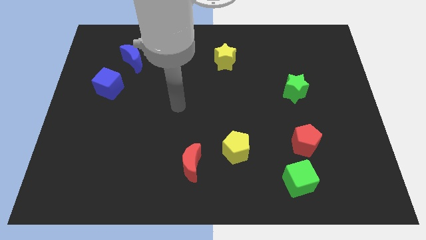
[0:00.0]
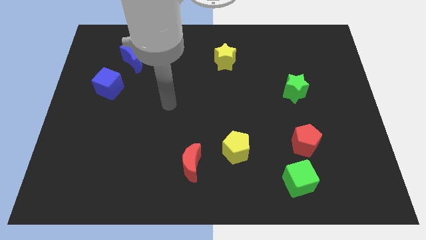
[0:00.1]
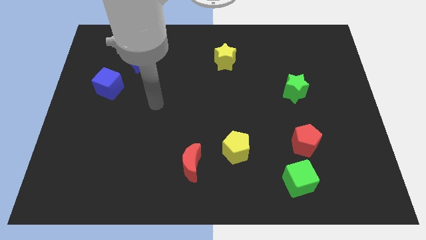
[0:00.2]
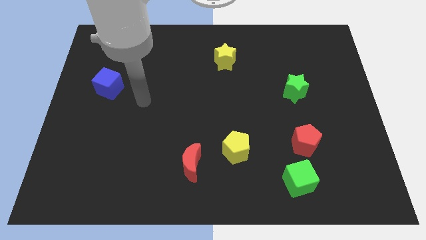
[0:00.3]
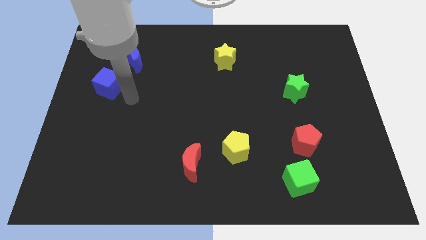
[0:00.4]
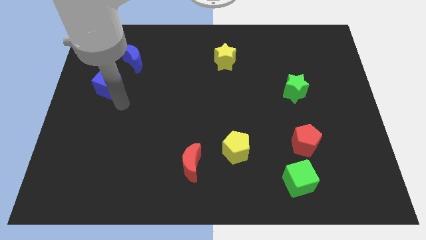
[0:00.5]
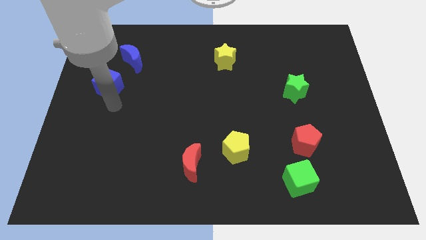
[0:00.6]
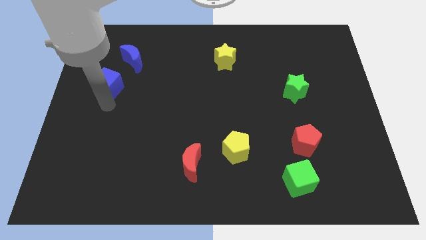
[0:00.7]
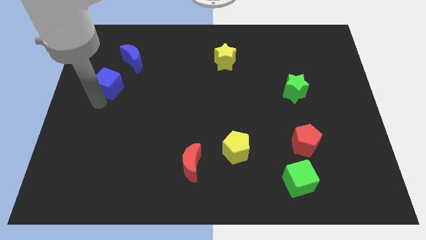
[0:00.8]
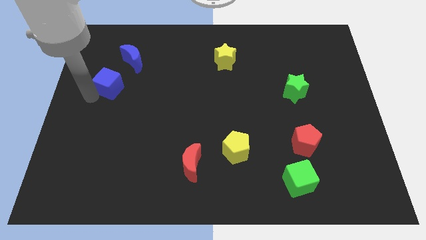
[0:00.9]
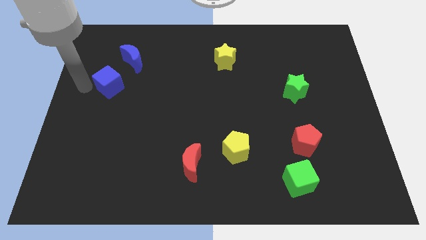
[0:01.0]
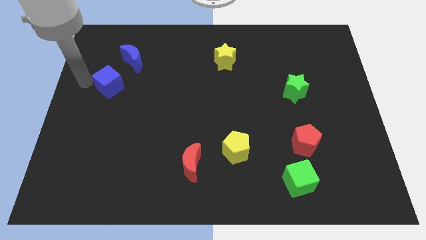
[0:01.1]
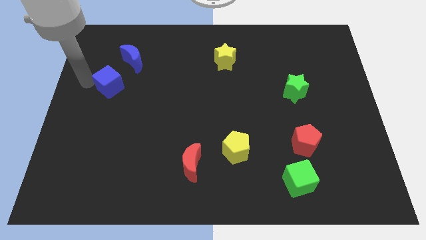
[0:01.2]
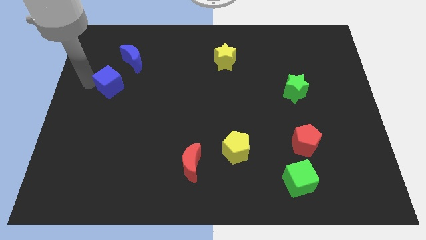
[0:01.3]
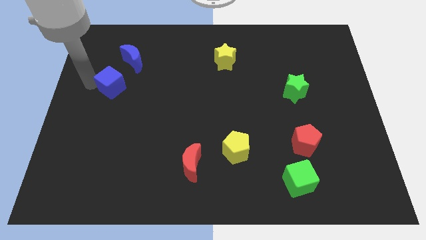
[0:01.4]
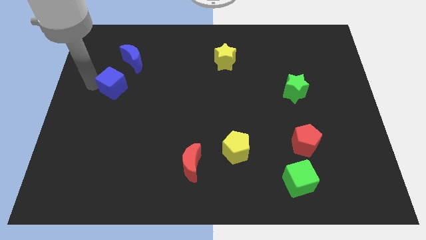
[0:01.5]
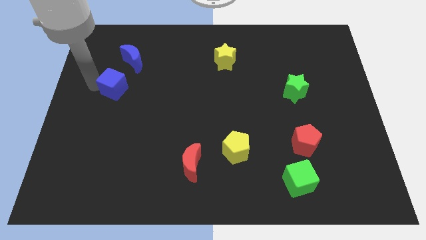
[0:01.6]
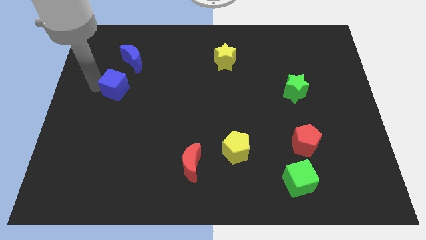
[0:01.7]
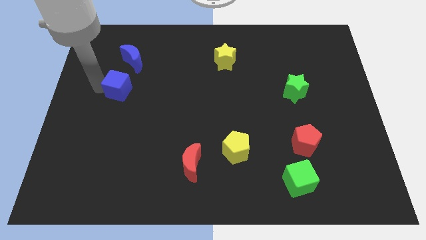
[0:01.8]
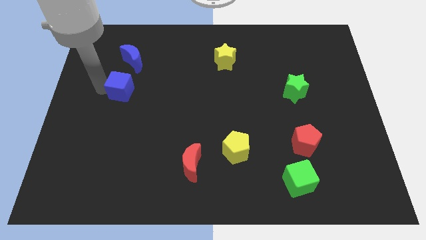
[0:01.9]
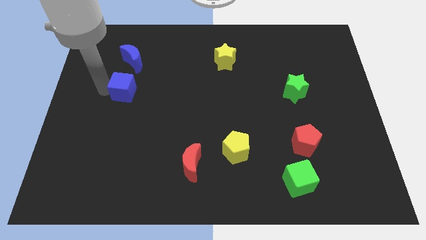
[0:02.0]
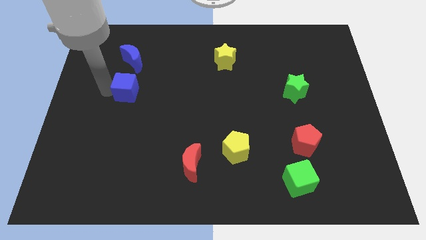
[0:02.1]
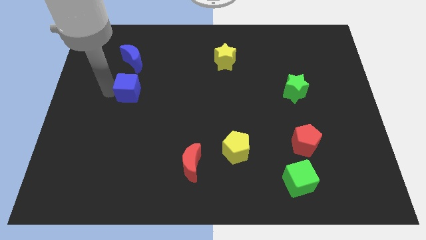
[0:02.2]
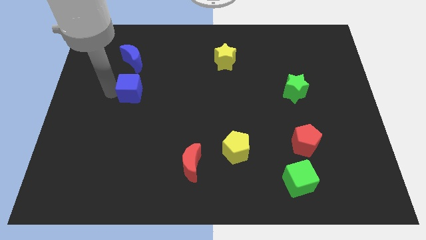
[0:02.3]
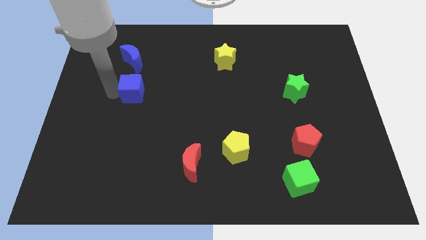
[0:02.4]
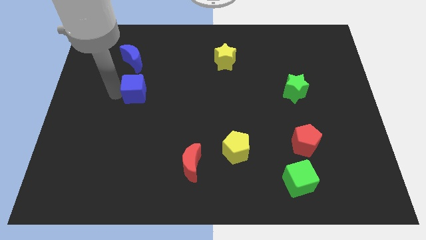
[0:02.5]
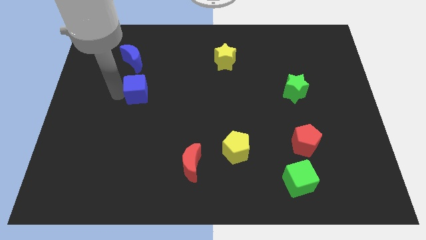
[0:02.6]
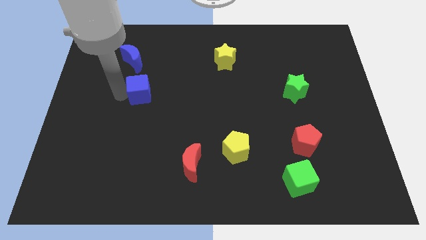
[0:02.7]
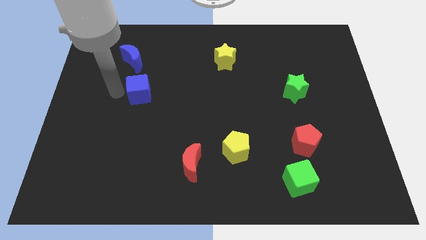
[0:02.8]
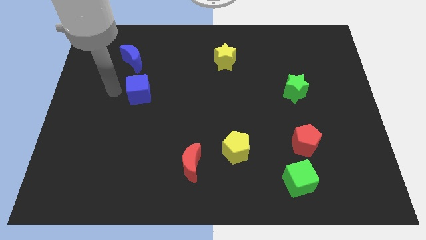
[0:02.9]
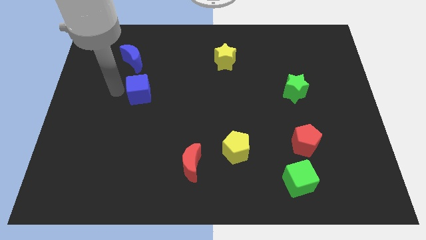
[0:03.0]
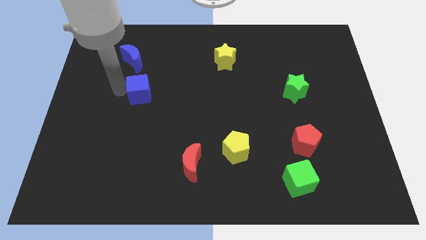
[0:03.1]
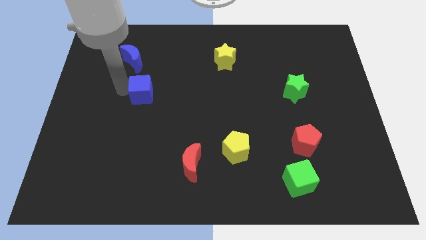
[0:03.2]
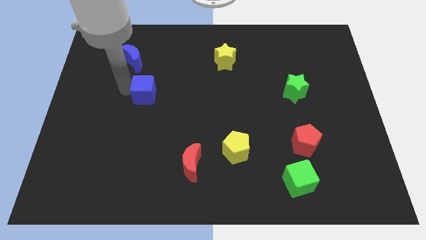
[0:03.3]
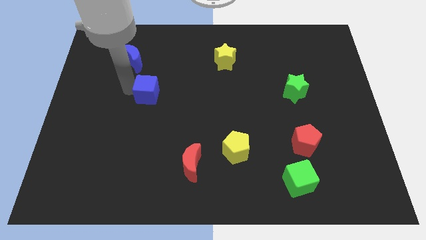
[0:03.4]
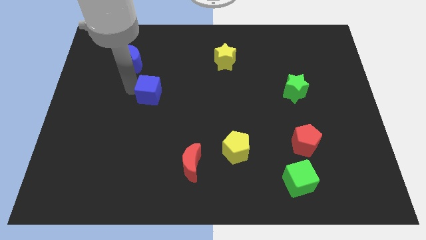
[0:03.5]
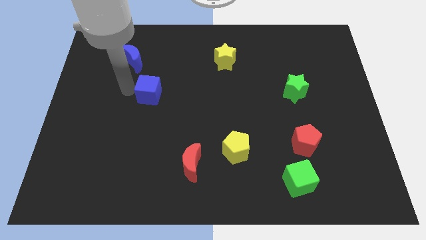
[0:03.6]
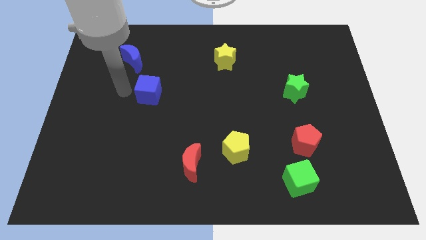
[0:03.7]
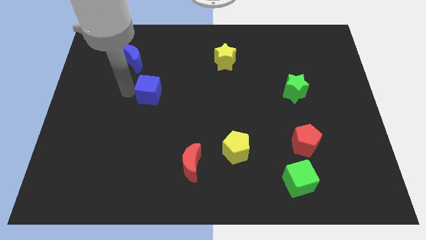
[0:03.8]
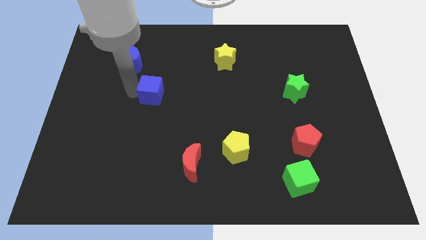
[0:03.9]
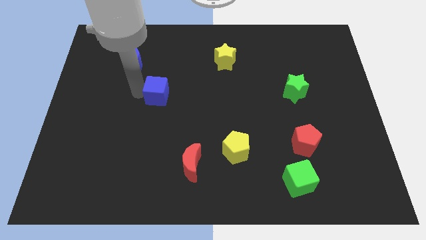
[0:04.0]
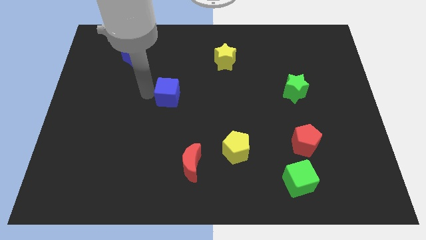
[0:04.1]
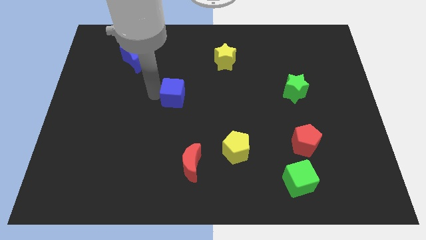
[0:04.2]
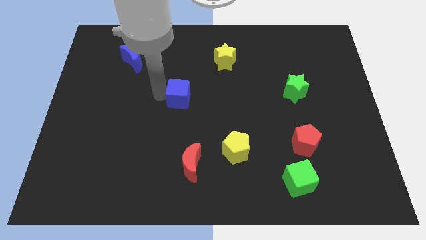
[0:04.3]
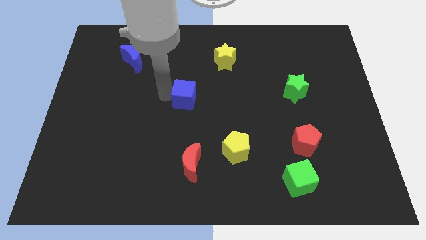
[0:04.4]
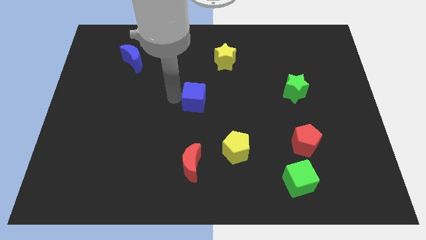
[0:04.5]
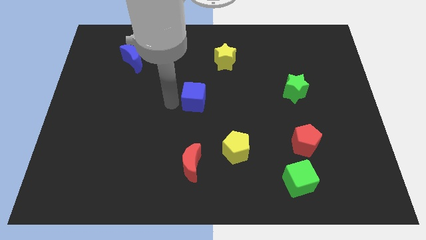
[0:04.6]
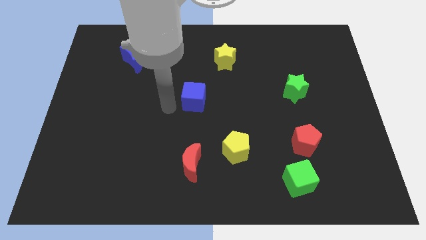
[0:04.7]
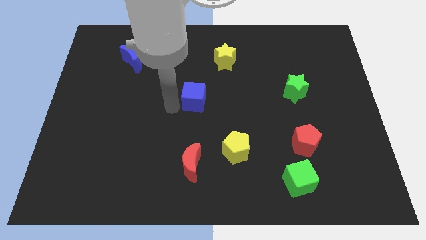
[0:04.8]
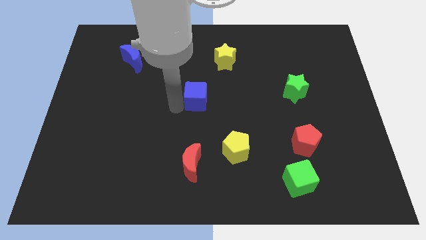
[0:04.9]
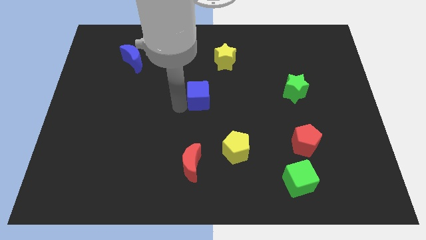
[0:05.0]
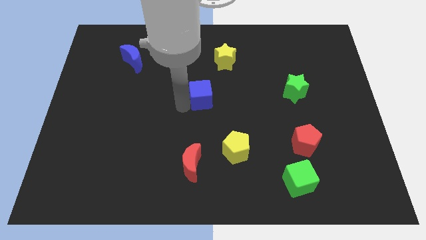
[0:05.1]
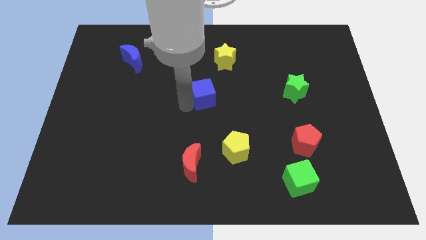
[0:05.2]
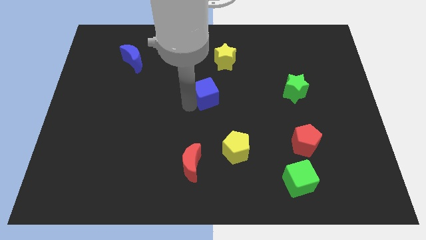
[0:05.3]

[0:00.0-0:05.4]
push the blue cube below the yellow star

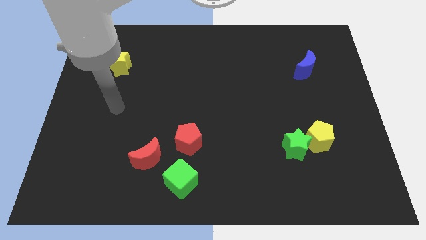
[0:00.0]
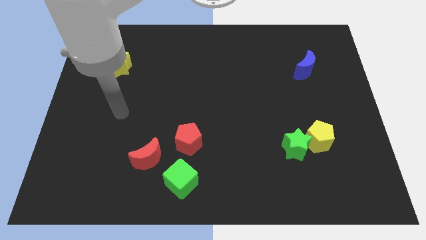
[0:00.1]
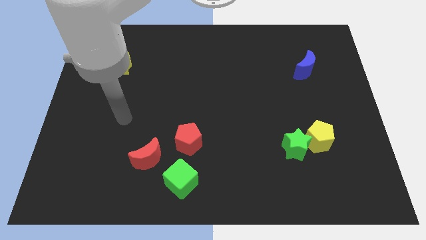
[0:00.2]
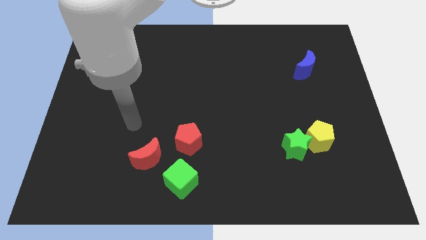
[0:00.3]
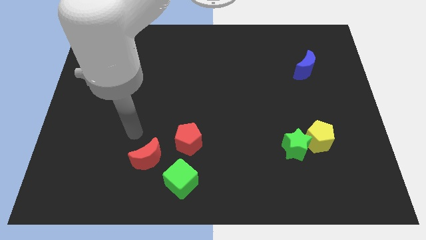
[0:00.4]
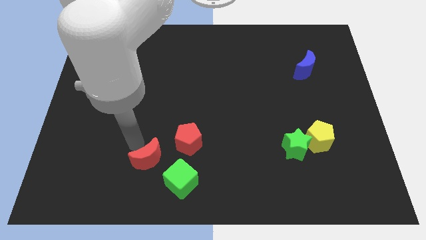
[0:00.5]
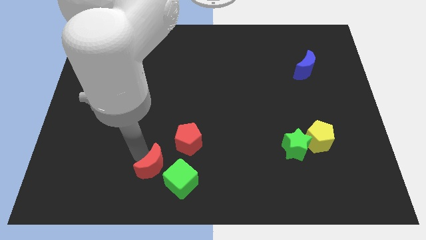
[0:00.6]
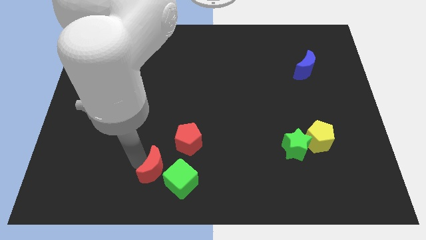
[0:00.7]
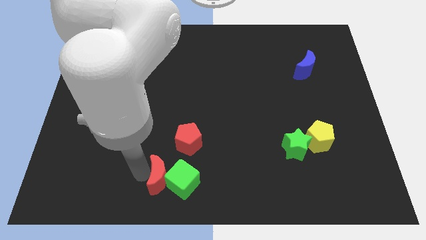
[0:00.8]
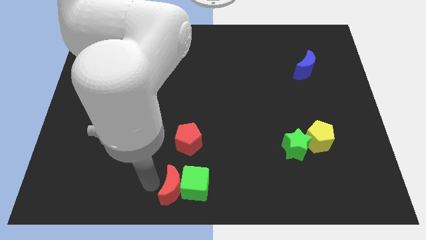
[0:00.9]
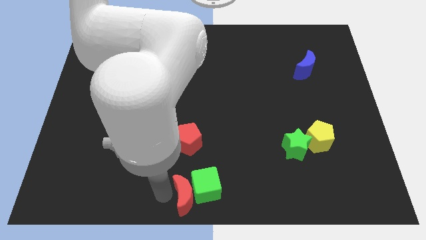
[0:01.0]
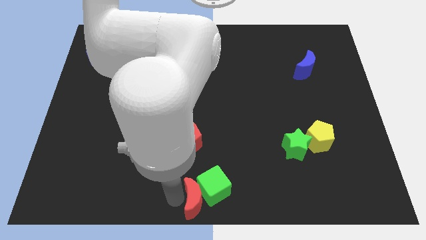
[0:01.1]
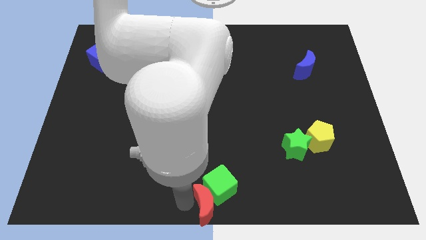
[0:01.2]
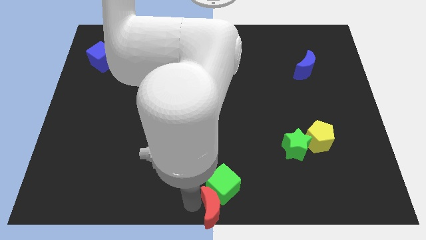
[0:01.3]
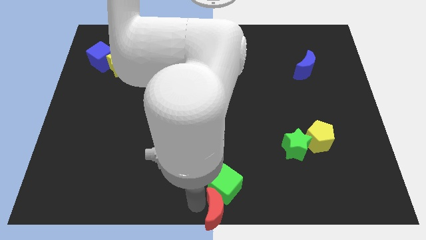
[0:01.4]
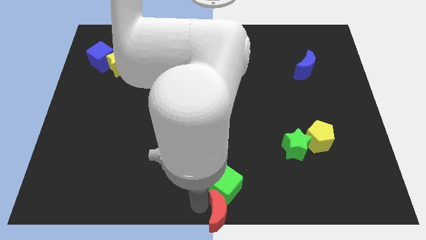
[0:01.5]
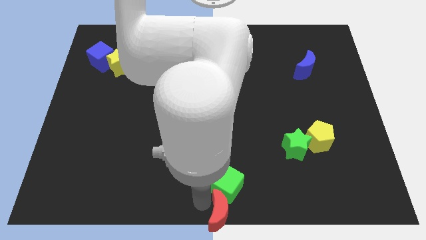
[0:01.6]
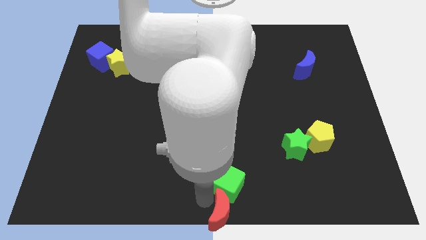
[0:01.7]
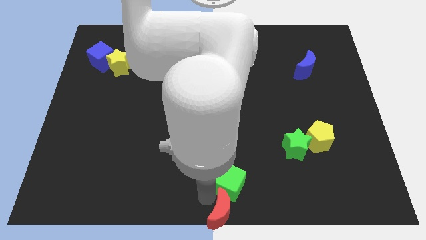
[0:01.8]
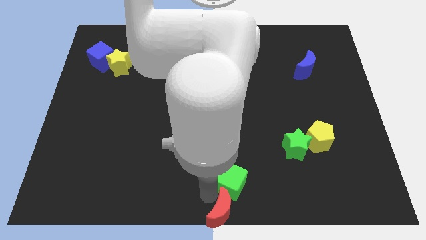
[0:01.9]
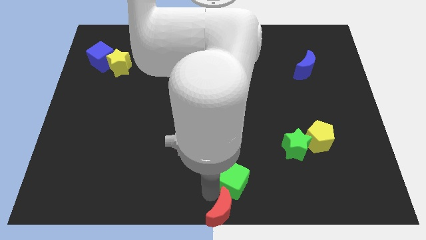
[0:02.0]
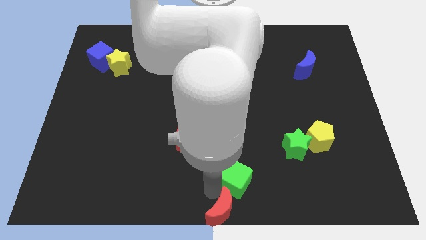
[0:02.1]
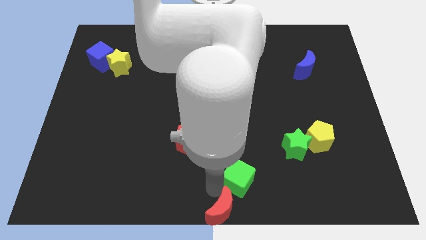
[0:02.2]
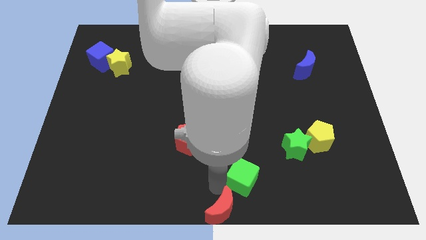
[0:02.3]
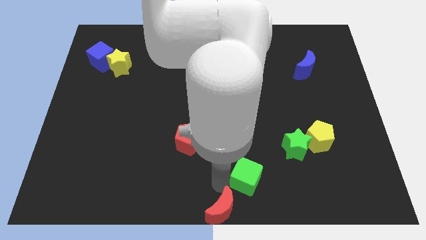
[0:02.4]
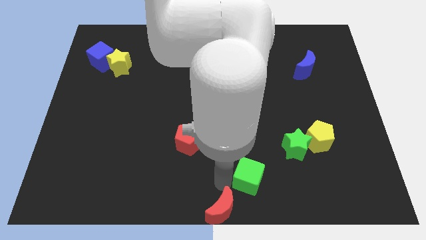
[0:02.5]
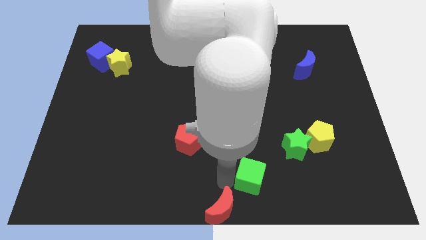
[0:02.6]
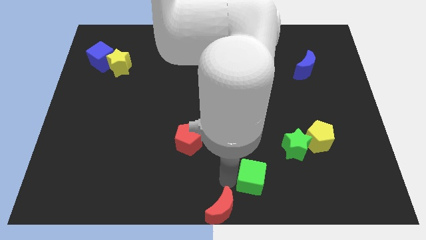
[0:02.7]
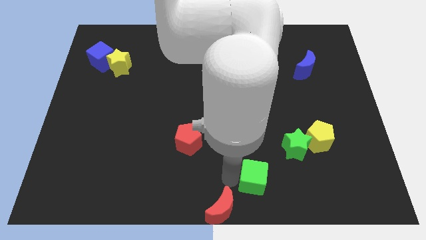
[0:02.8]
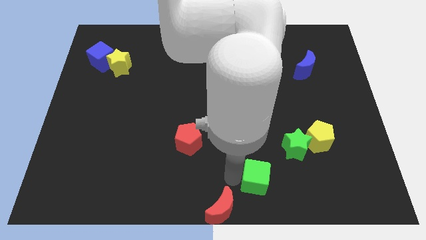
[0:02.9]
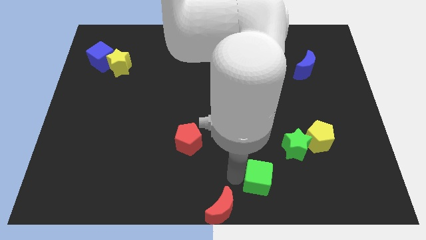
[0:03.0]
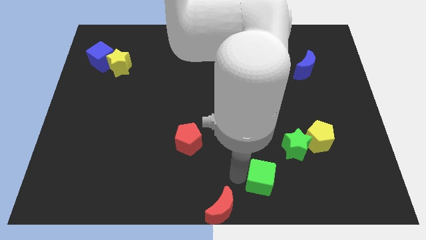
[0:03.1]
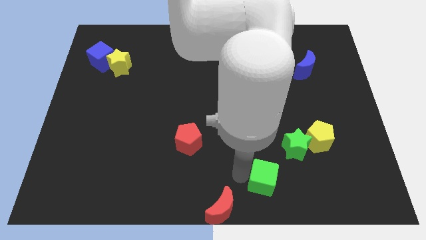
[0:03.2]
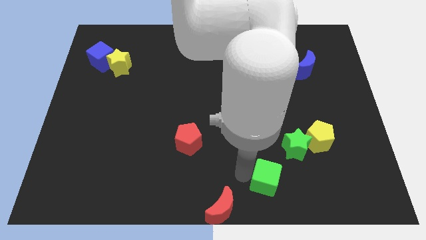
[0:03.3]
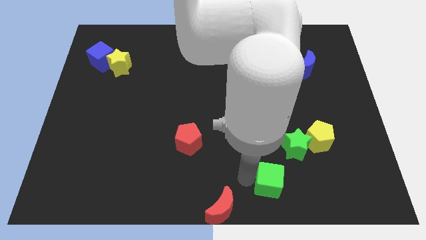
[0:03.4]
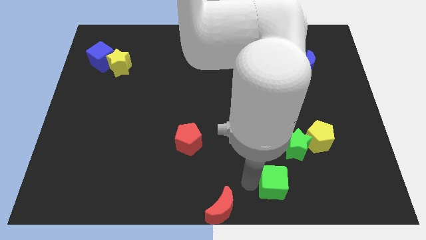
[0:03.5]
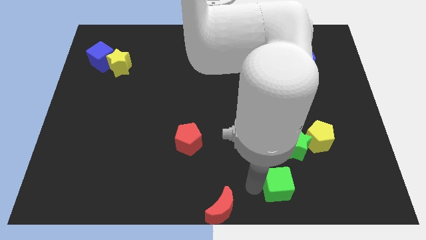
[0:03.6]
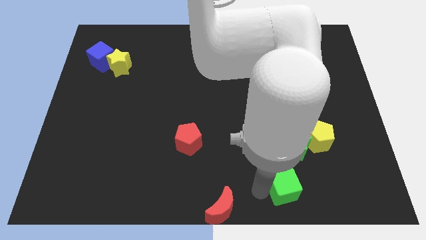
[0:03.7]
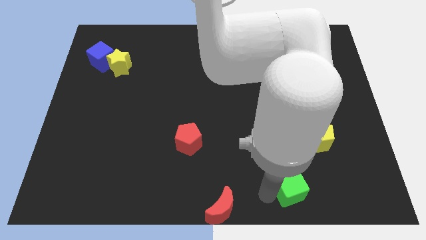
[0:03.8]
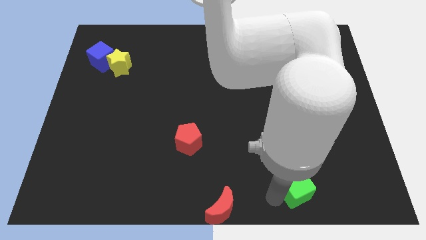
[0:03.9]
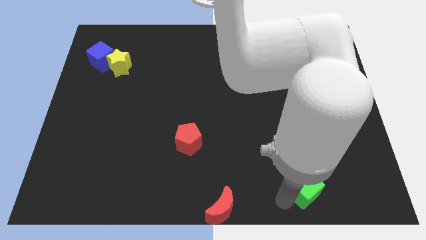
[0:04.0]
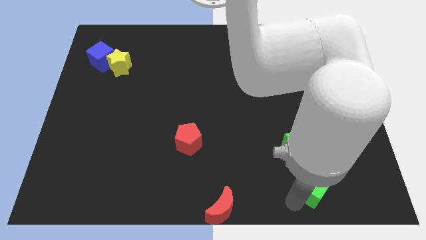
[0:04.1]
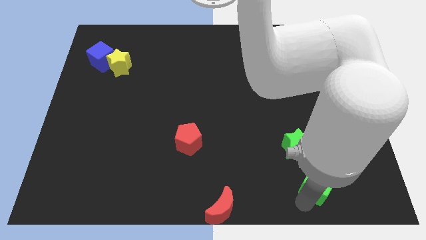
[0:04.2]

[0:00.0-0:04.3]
put the green cube to the bottom right of the green star
